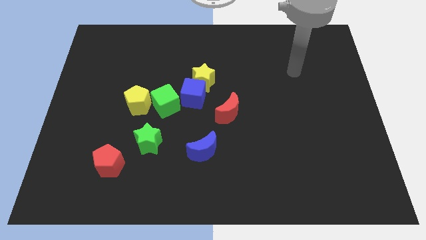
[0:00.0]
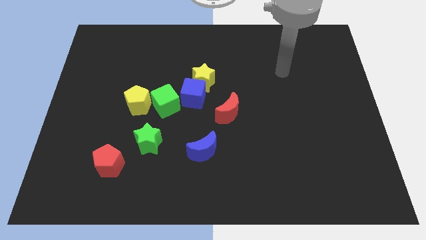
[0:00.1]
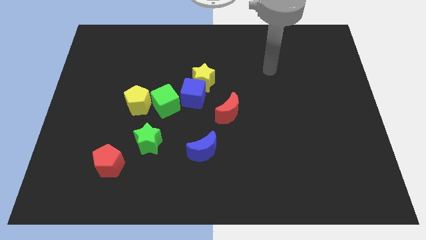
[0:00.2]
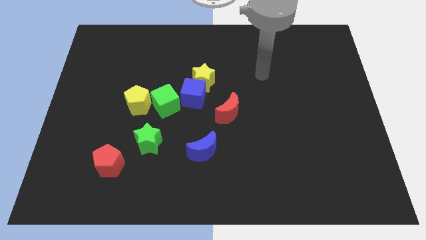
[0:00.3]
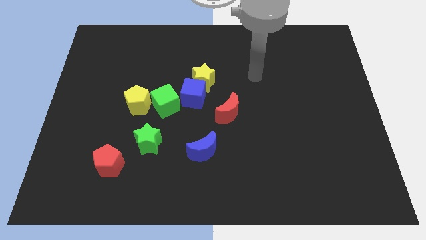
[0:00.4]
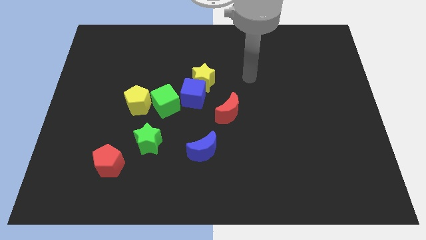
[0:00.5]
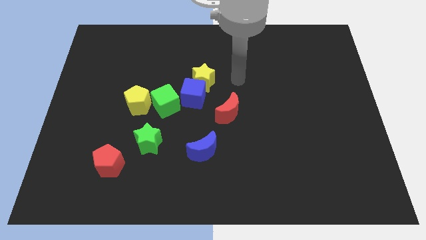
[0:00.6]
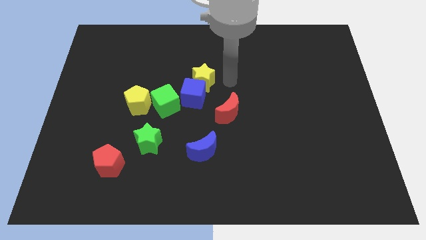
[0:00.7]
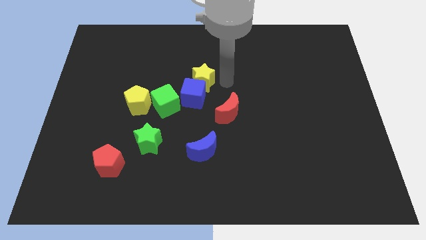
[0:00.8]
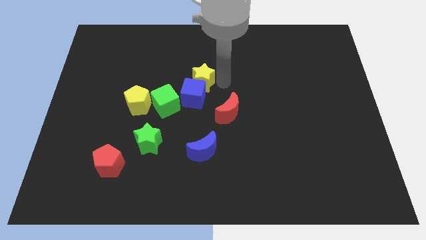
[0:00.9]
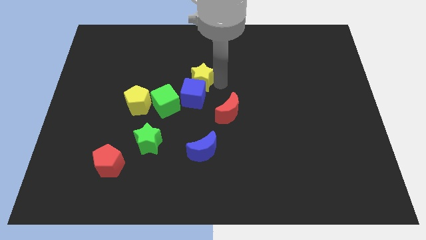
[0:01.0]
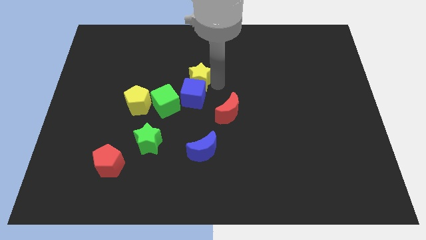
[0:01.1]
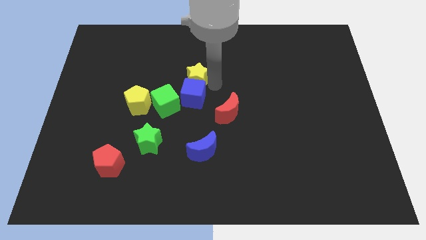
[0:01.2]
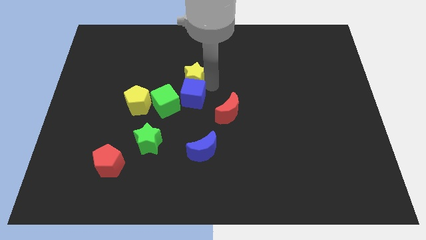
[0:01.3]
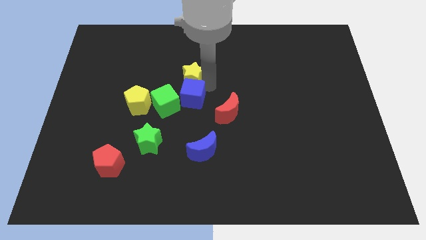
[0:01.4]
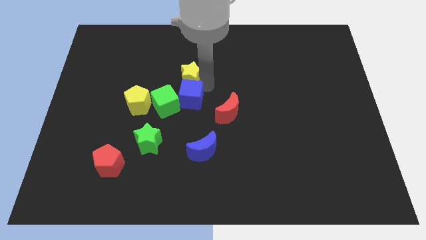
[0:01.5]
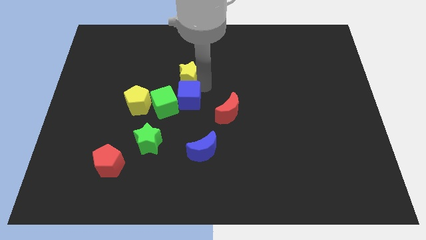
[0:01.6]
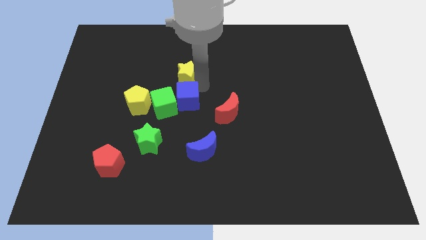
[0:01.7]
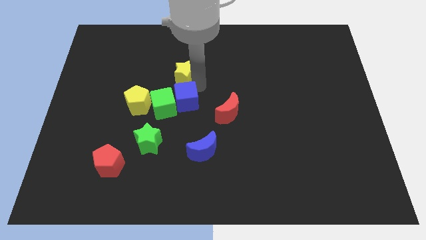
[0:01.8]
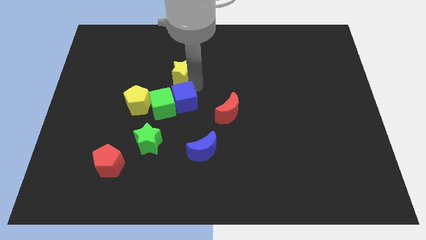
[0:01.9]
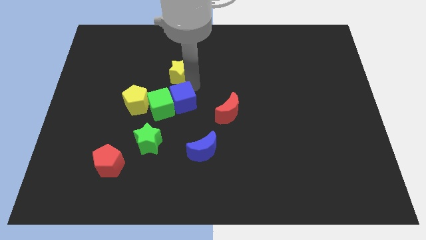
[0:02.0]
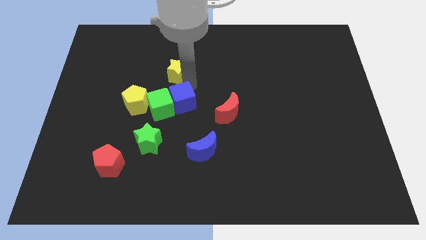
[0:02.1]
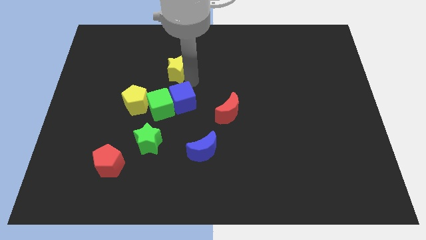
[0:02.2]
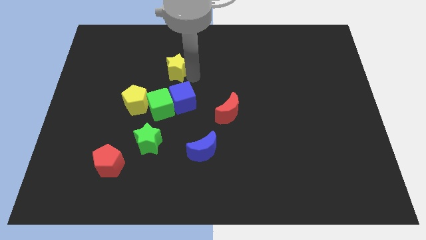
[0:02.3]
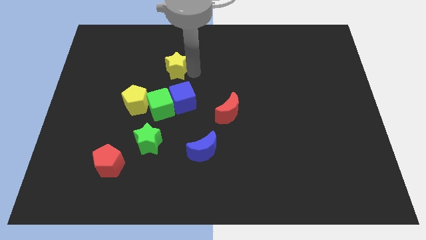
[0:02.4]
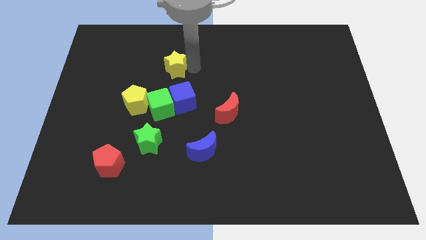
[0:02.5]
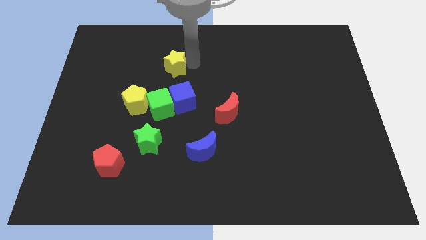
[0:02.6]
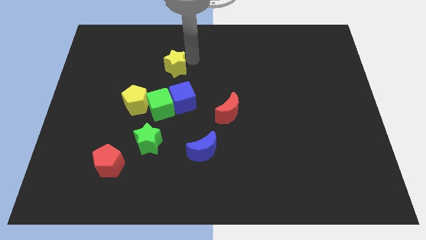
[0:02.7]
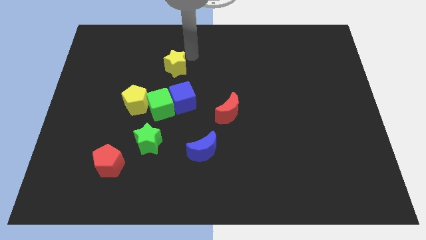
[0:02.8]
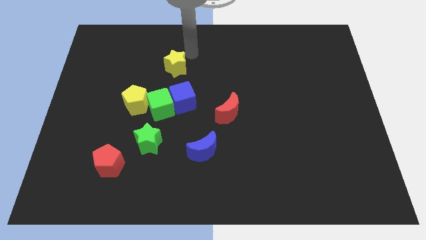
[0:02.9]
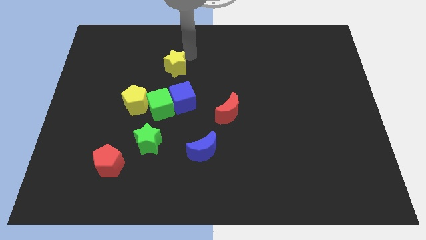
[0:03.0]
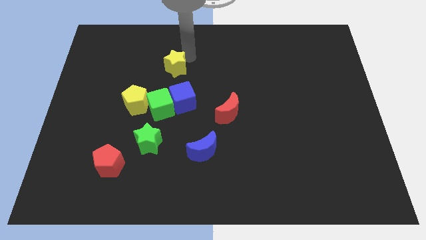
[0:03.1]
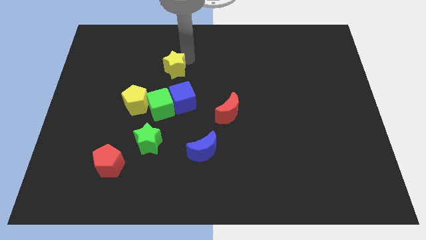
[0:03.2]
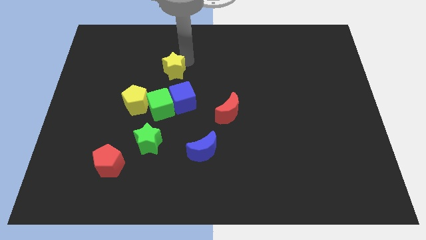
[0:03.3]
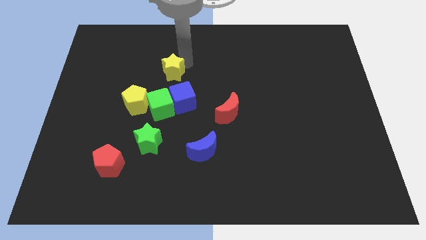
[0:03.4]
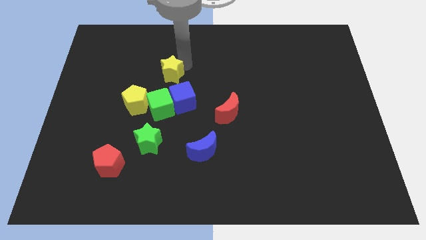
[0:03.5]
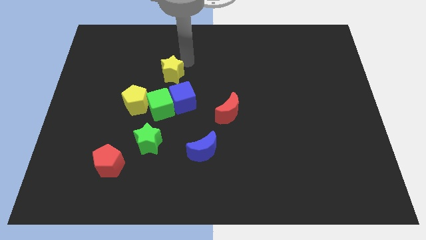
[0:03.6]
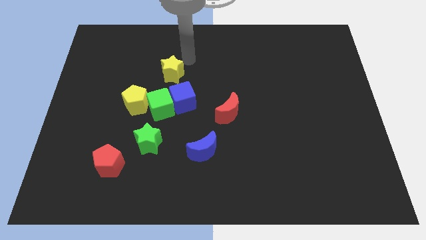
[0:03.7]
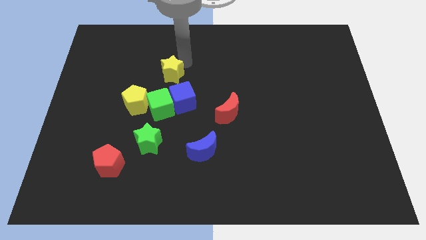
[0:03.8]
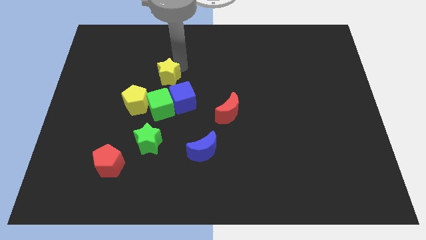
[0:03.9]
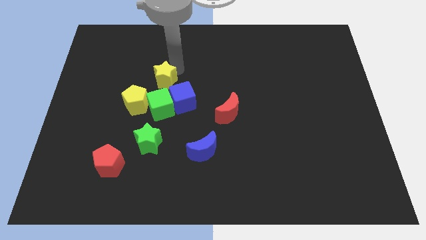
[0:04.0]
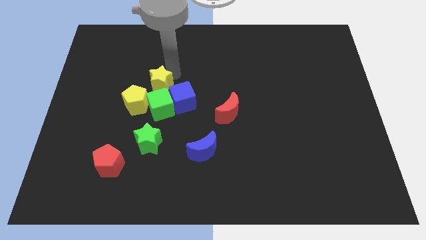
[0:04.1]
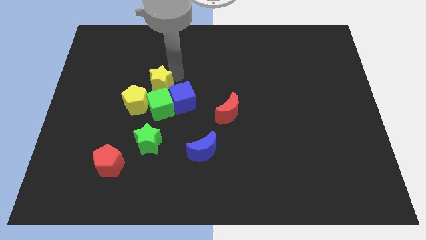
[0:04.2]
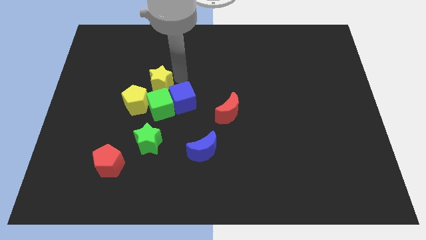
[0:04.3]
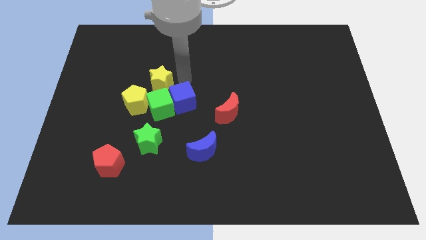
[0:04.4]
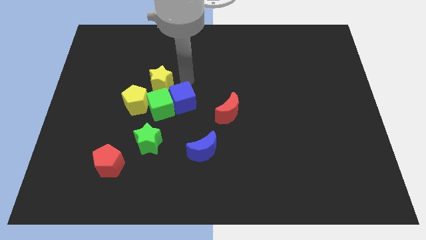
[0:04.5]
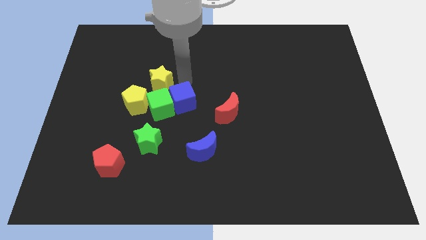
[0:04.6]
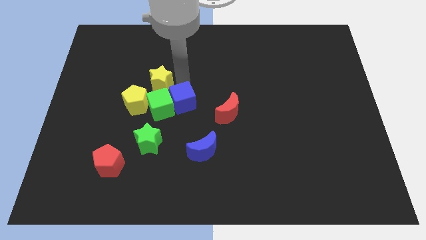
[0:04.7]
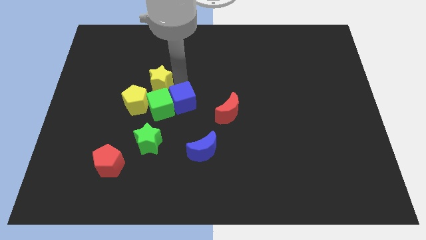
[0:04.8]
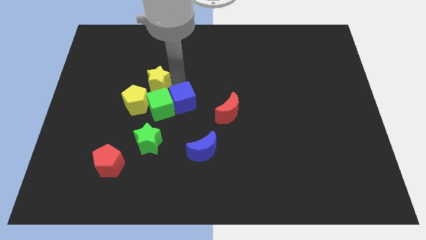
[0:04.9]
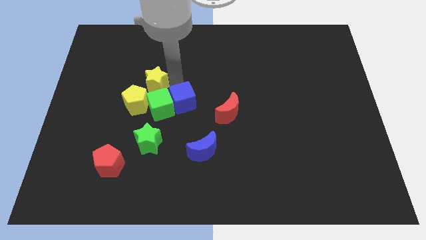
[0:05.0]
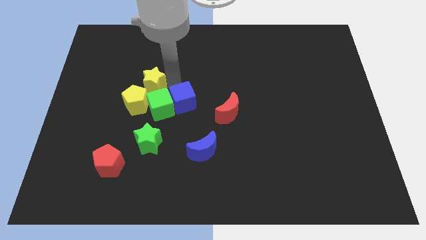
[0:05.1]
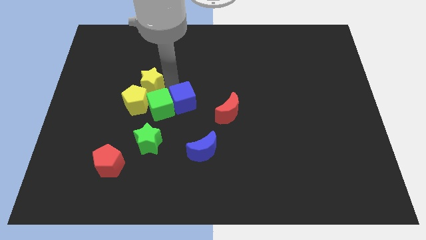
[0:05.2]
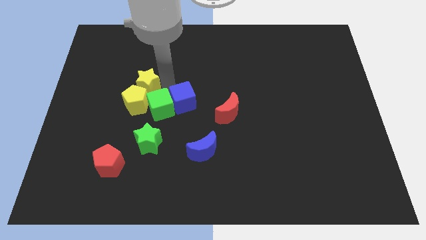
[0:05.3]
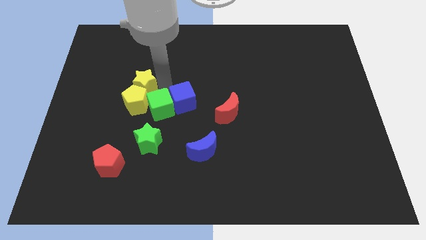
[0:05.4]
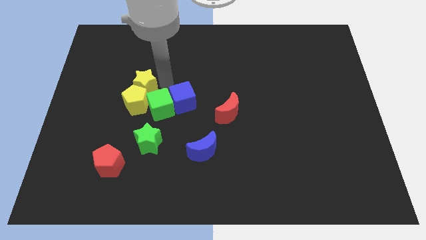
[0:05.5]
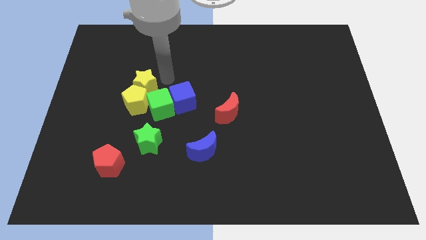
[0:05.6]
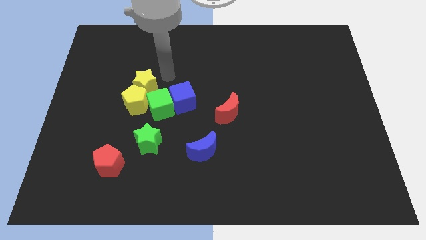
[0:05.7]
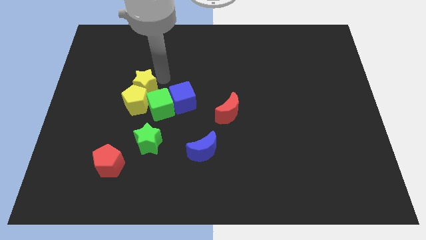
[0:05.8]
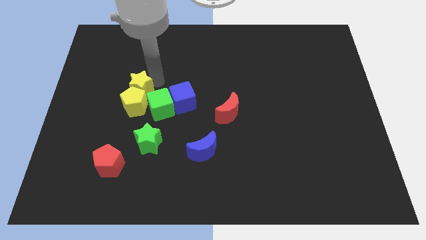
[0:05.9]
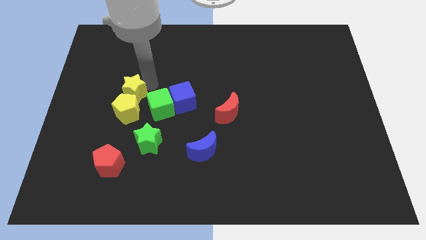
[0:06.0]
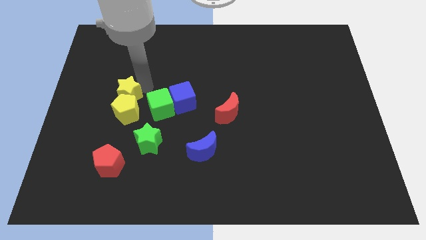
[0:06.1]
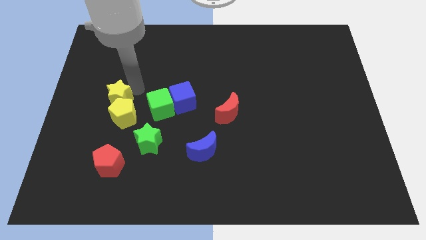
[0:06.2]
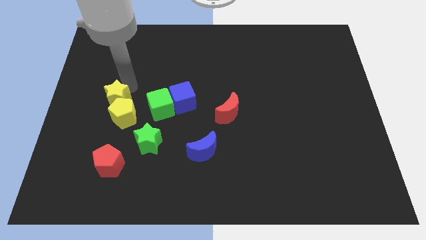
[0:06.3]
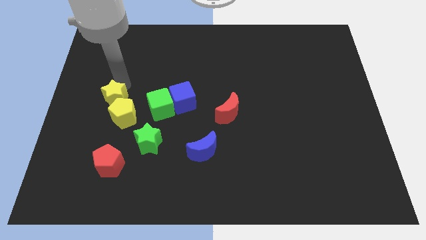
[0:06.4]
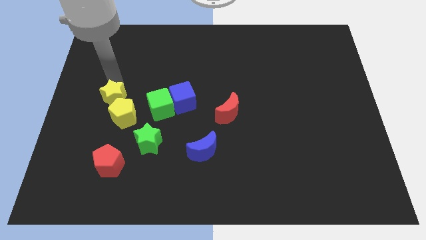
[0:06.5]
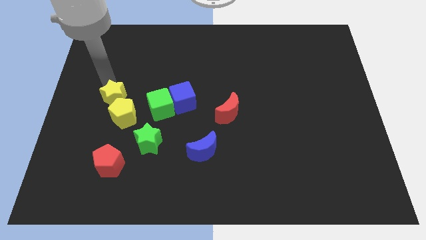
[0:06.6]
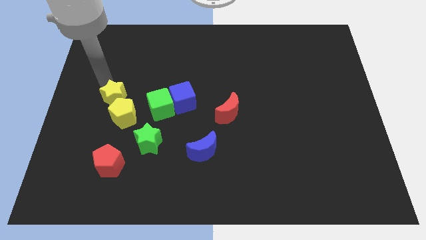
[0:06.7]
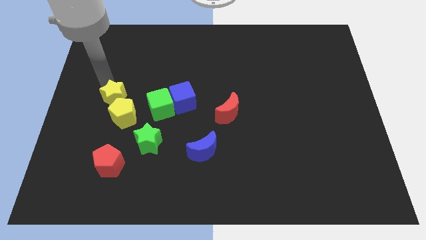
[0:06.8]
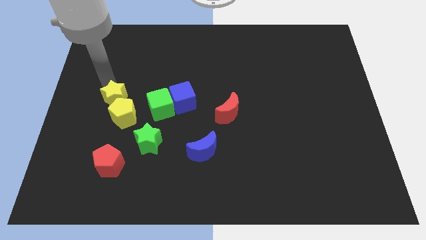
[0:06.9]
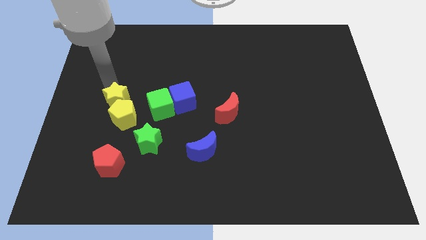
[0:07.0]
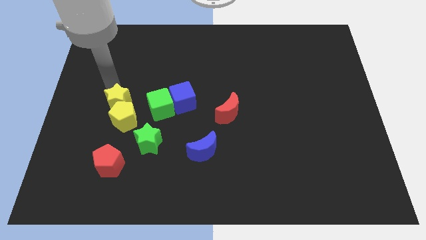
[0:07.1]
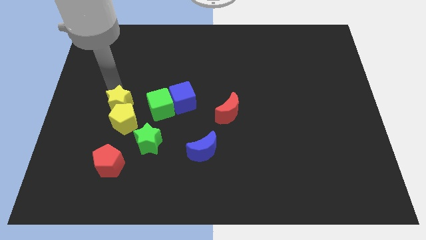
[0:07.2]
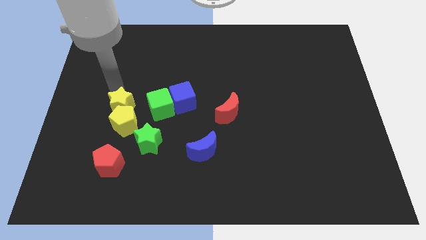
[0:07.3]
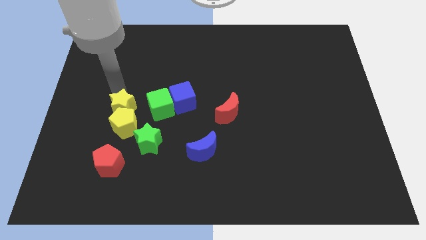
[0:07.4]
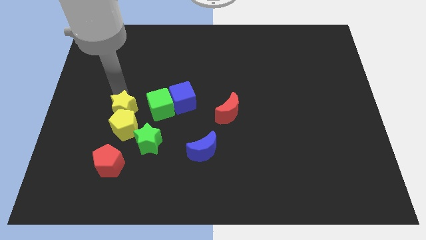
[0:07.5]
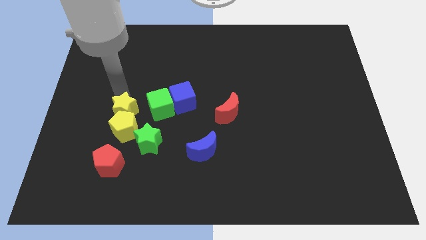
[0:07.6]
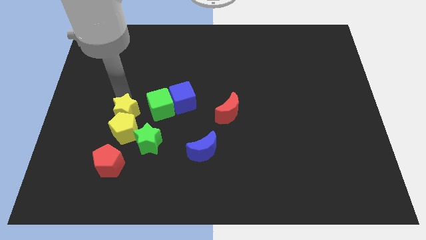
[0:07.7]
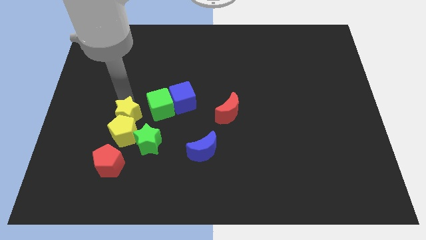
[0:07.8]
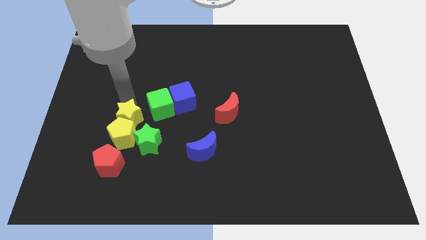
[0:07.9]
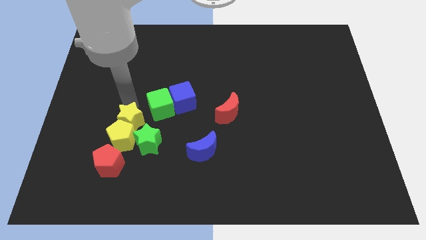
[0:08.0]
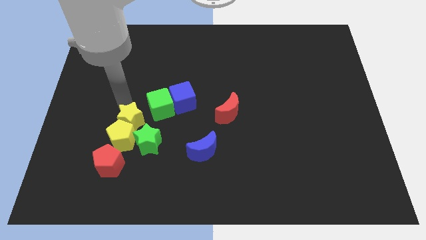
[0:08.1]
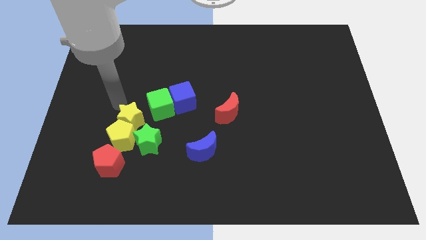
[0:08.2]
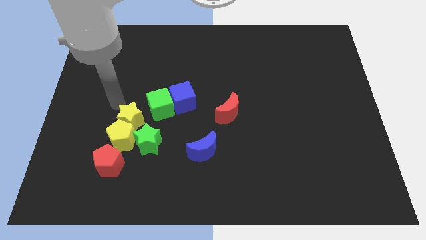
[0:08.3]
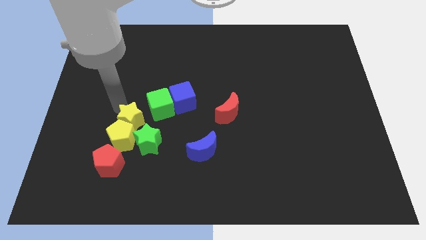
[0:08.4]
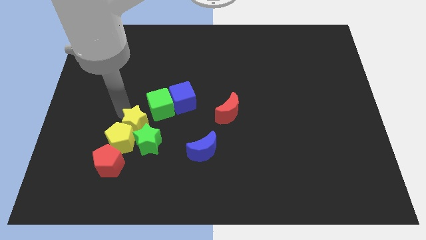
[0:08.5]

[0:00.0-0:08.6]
slide the yellow star towards the green star
